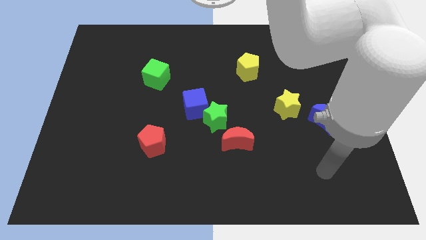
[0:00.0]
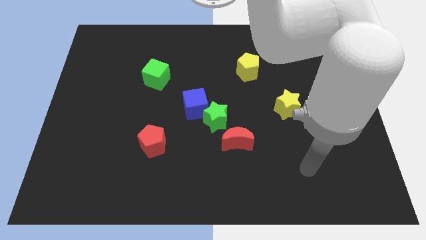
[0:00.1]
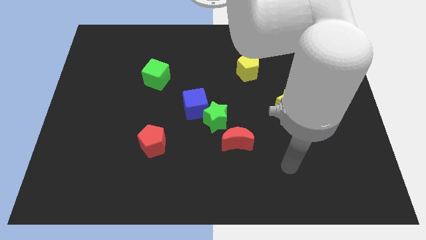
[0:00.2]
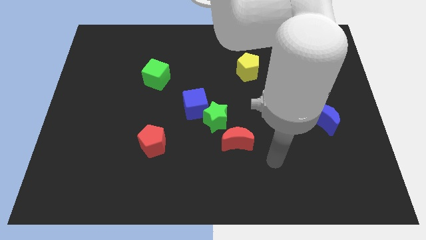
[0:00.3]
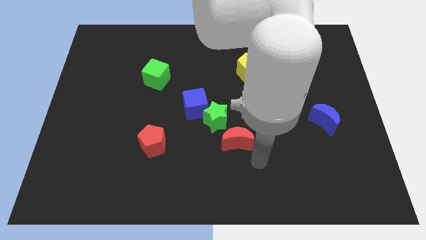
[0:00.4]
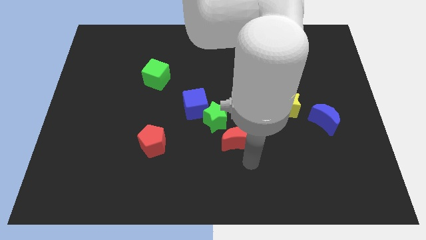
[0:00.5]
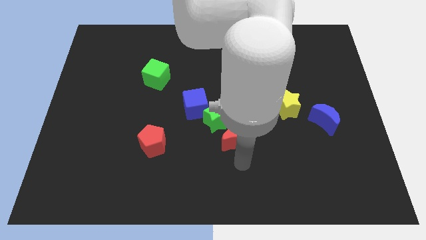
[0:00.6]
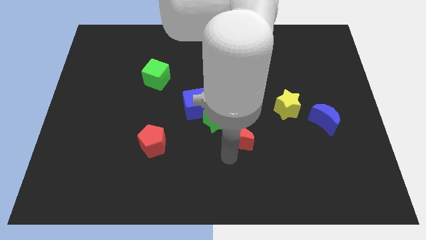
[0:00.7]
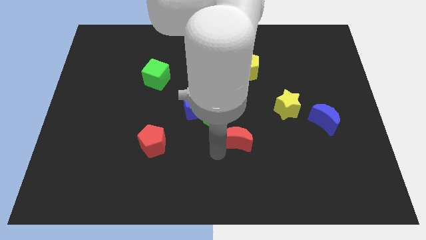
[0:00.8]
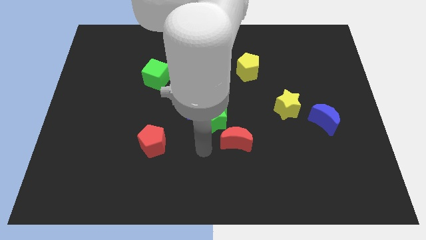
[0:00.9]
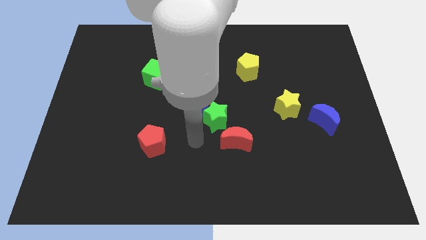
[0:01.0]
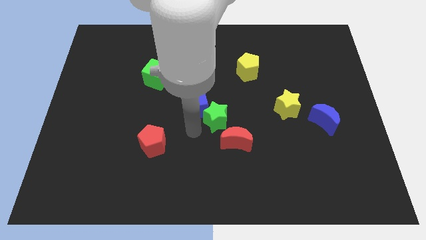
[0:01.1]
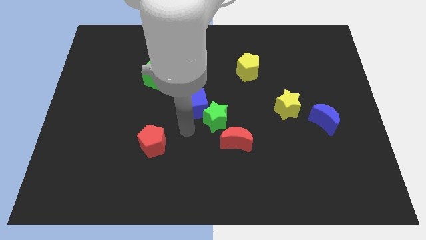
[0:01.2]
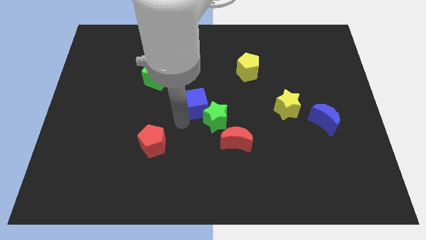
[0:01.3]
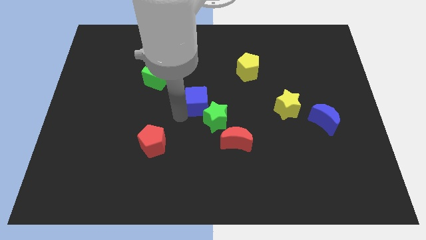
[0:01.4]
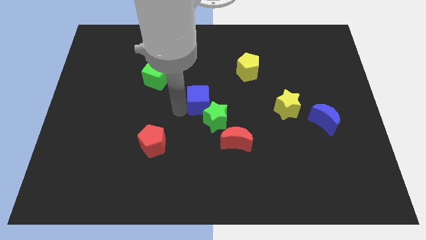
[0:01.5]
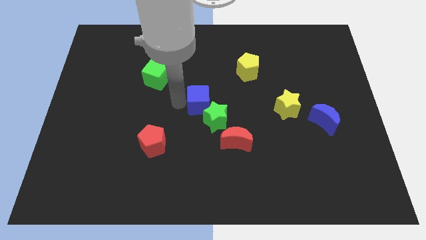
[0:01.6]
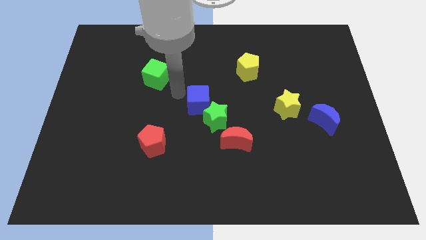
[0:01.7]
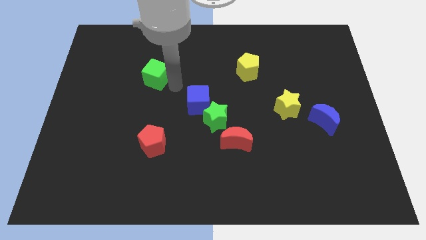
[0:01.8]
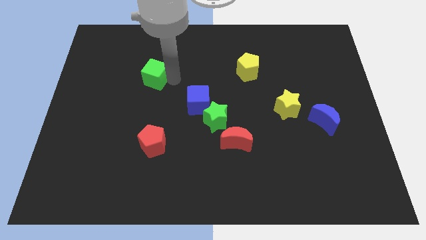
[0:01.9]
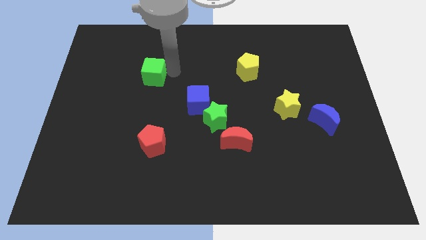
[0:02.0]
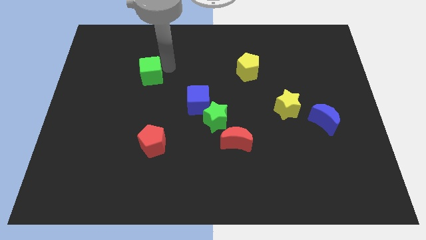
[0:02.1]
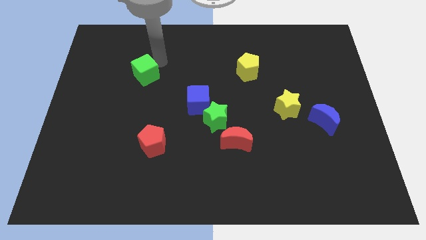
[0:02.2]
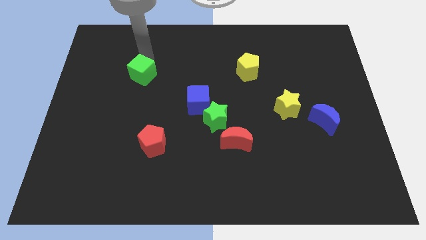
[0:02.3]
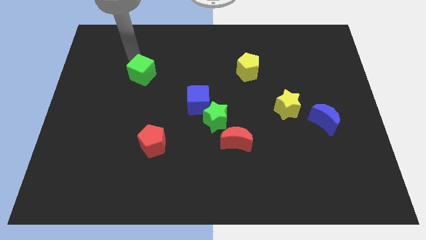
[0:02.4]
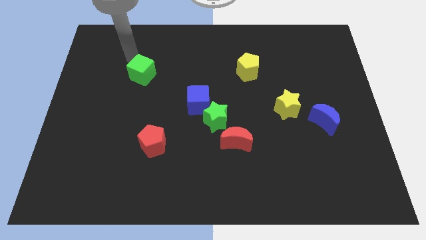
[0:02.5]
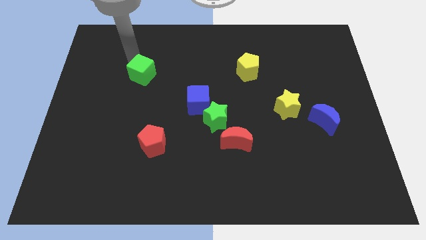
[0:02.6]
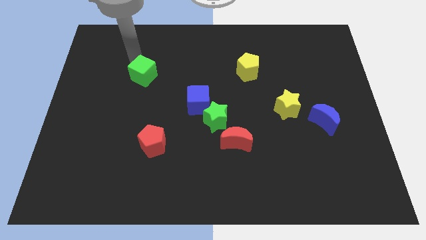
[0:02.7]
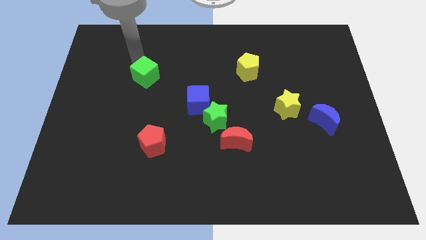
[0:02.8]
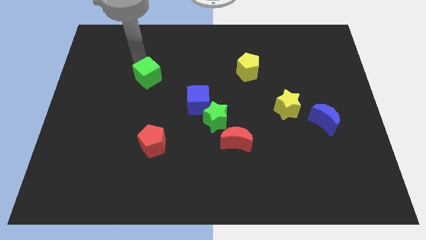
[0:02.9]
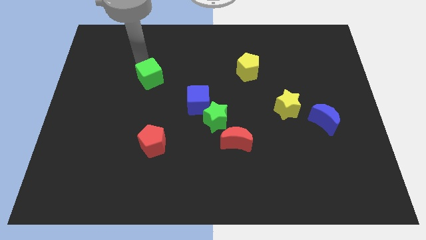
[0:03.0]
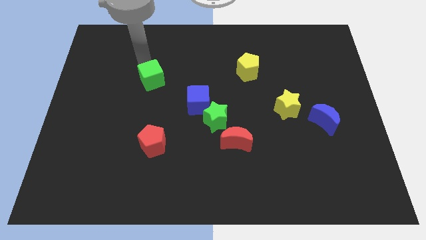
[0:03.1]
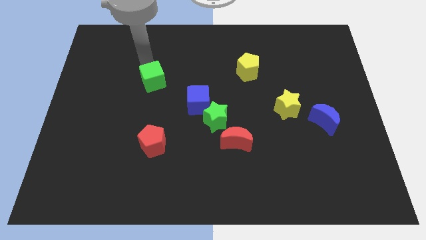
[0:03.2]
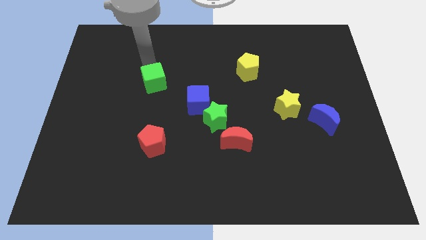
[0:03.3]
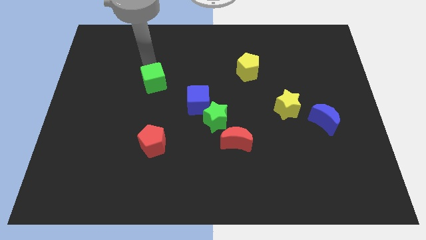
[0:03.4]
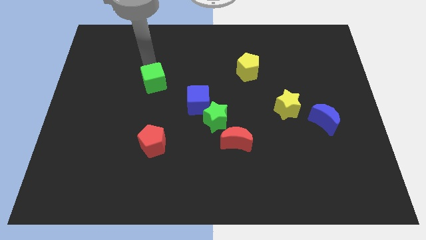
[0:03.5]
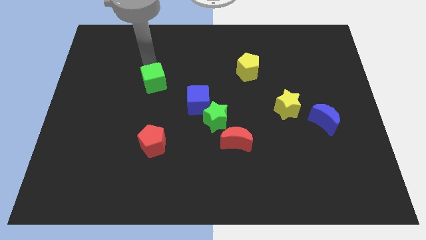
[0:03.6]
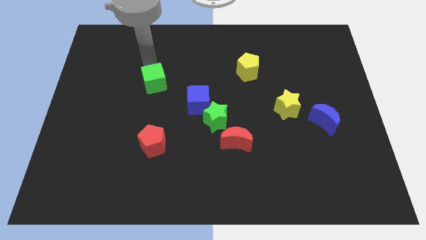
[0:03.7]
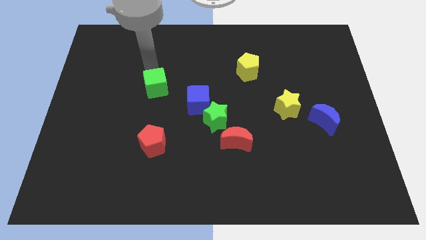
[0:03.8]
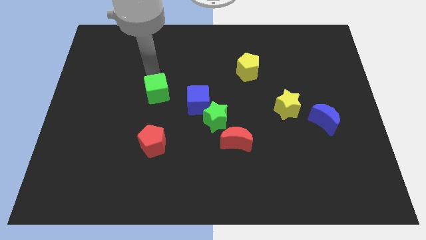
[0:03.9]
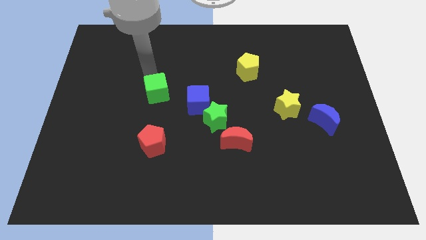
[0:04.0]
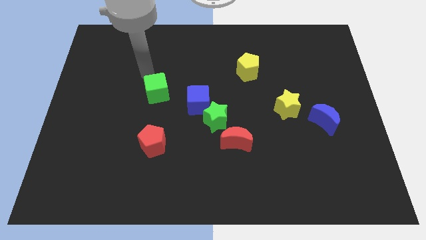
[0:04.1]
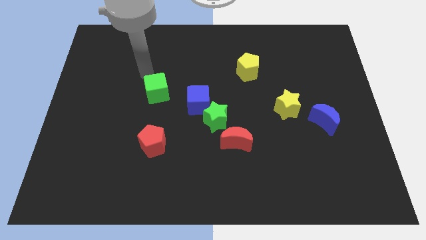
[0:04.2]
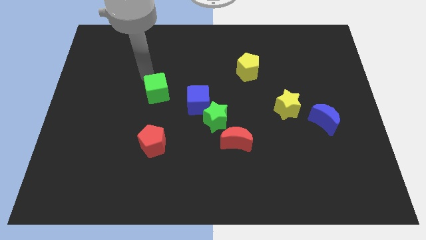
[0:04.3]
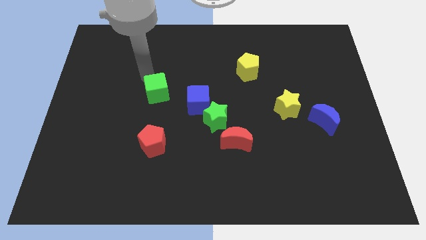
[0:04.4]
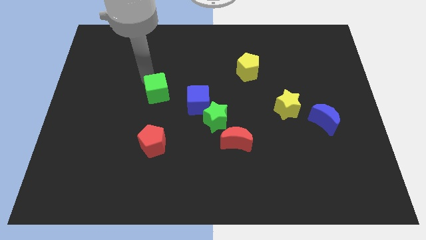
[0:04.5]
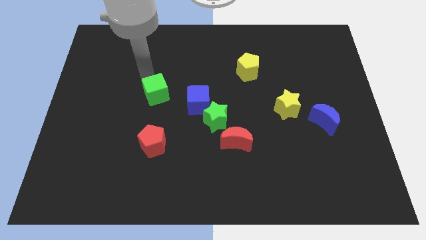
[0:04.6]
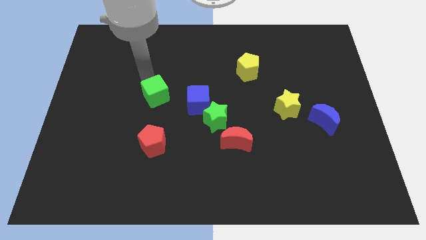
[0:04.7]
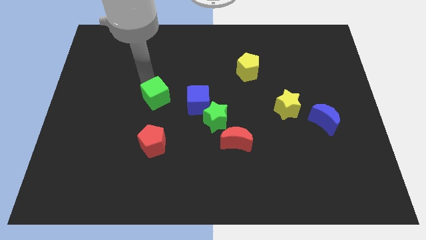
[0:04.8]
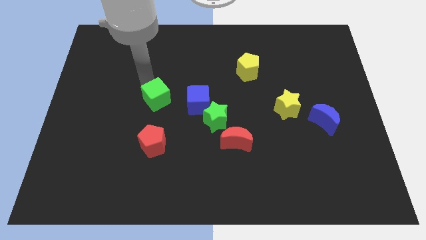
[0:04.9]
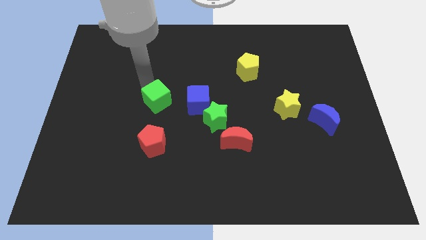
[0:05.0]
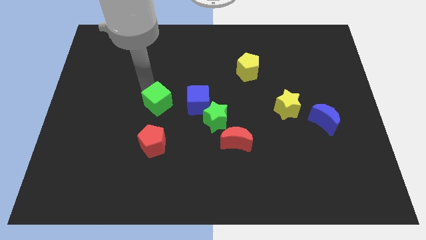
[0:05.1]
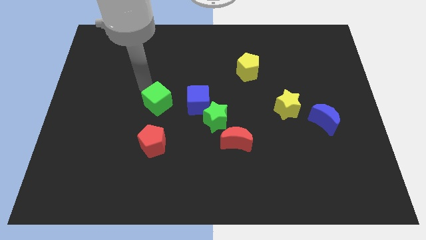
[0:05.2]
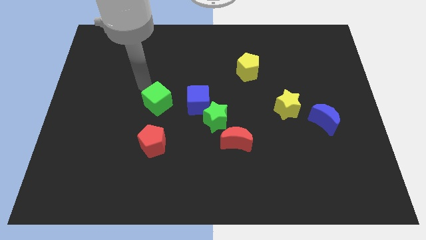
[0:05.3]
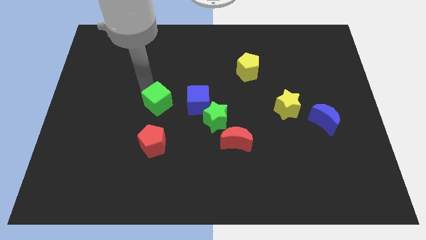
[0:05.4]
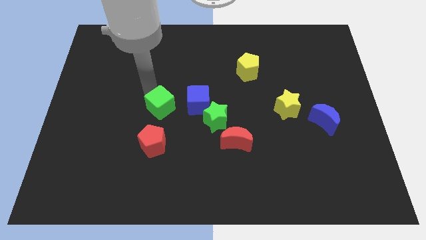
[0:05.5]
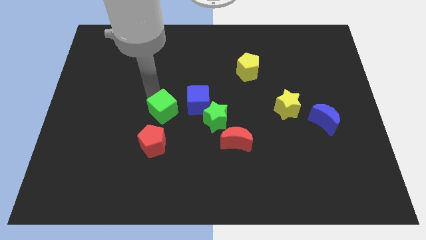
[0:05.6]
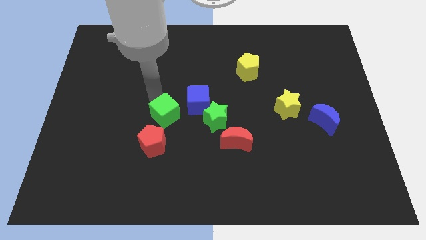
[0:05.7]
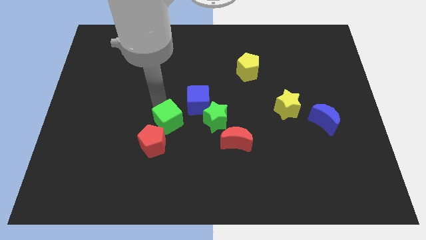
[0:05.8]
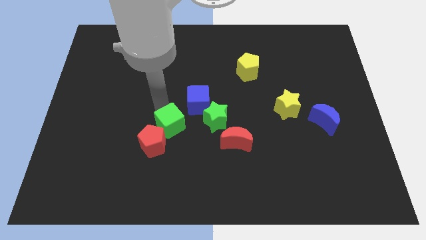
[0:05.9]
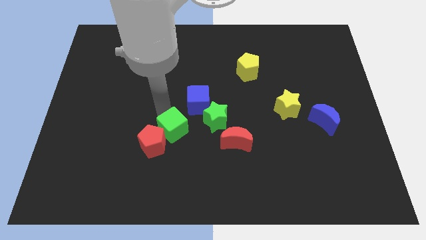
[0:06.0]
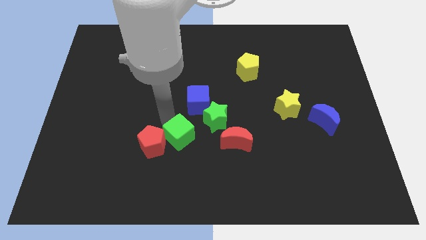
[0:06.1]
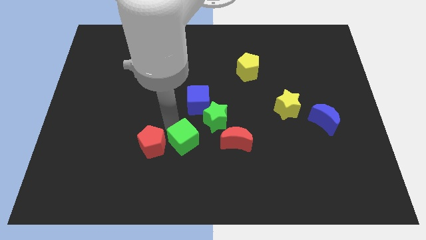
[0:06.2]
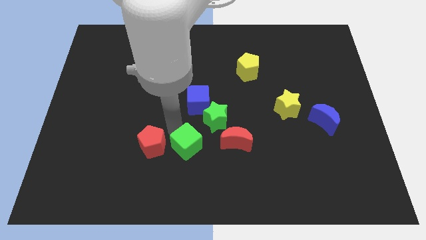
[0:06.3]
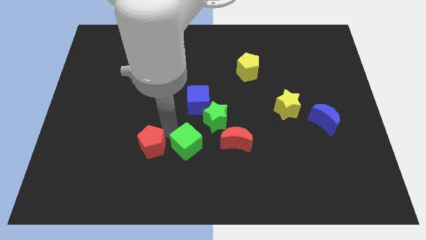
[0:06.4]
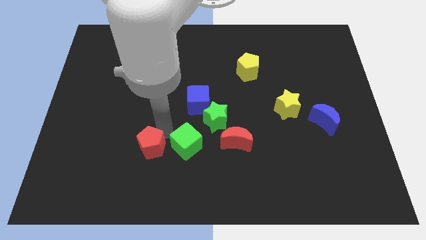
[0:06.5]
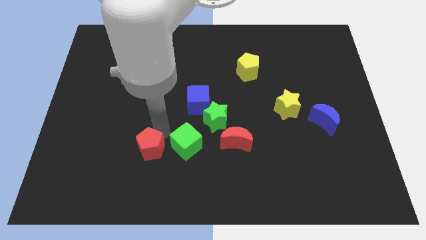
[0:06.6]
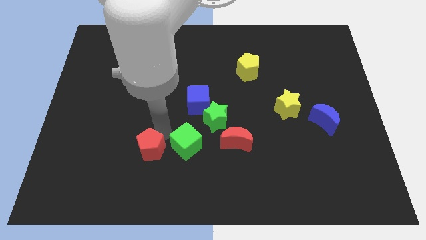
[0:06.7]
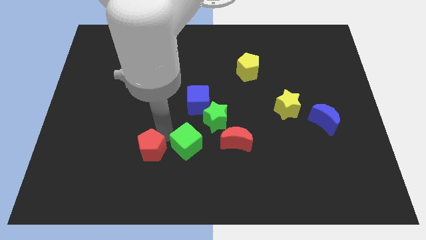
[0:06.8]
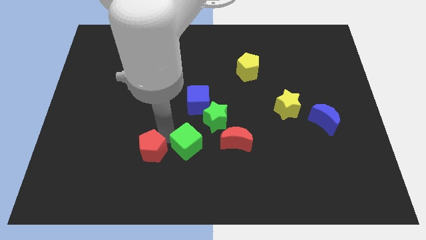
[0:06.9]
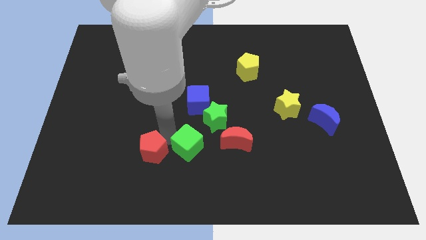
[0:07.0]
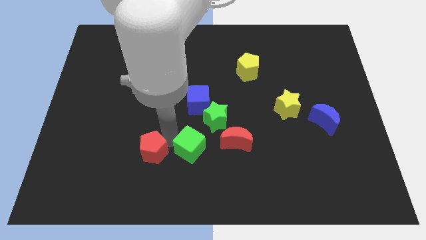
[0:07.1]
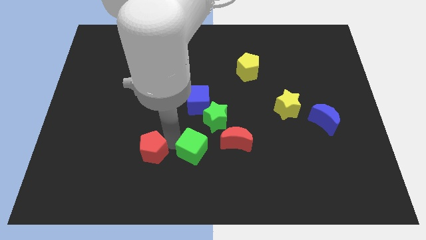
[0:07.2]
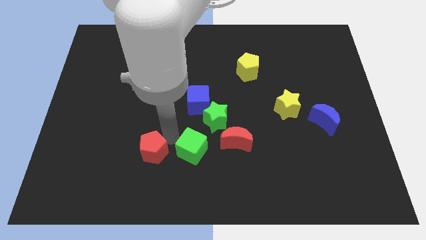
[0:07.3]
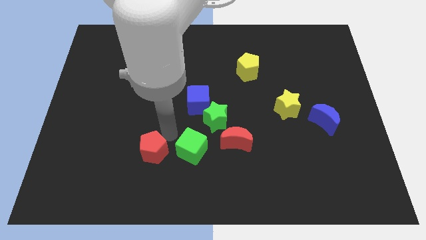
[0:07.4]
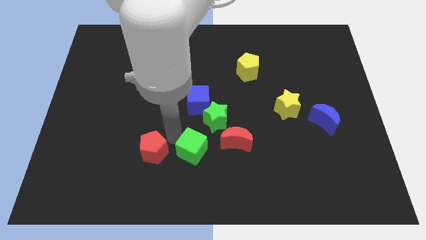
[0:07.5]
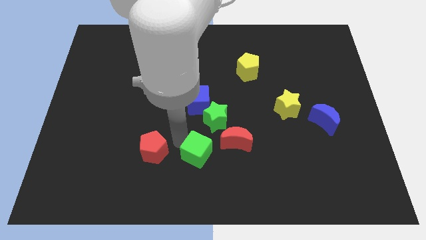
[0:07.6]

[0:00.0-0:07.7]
push the green cube diagonally down and to the left of the red moon

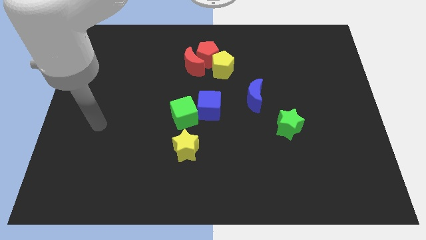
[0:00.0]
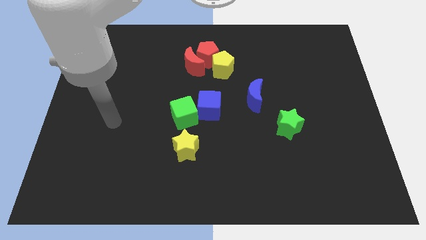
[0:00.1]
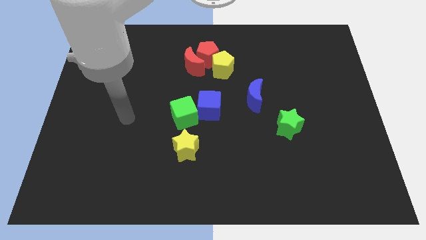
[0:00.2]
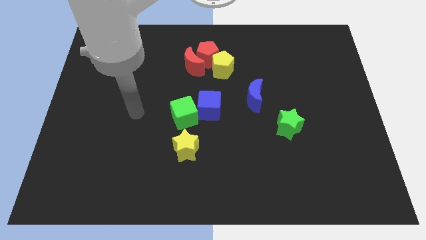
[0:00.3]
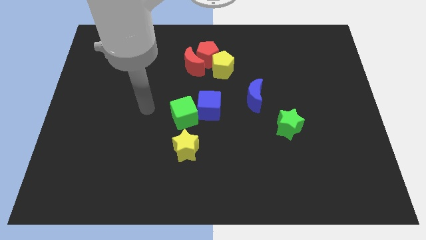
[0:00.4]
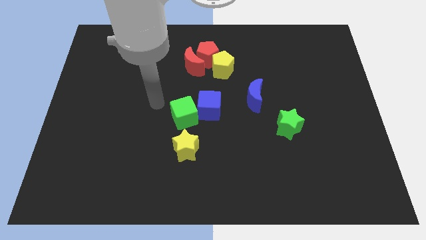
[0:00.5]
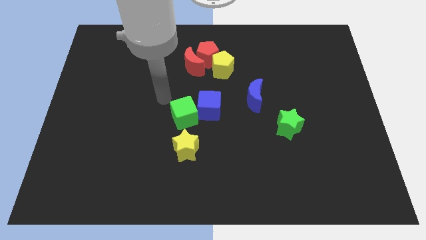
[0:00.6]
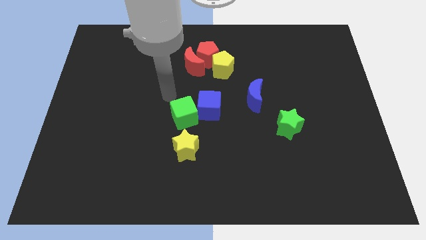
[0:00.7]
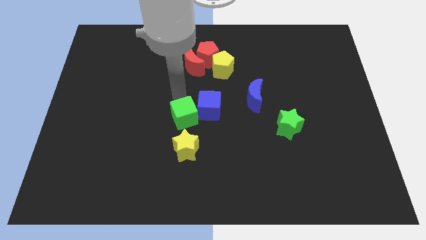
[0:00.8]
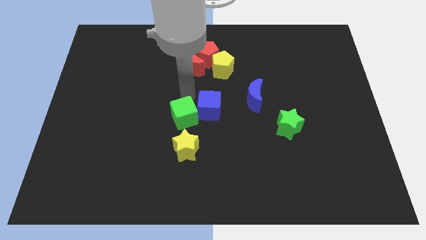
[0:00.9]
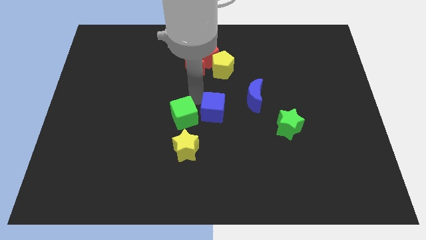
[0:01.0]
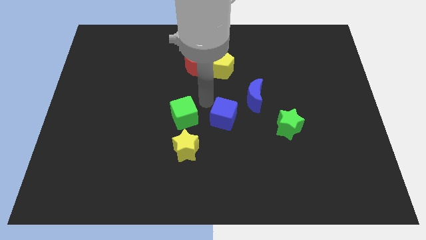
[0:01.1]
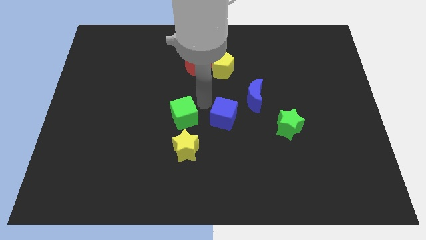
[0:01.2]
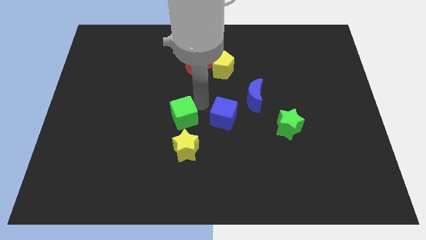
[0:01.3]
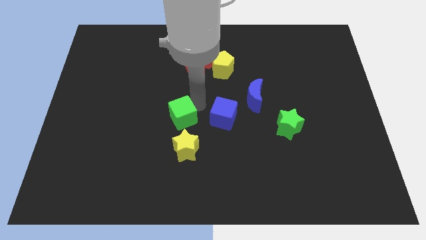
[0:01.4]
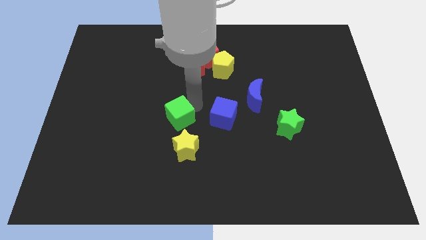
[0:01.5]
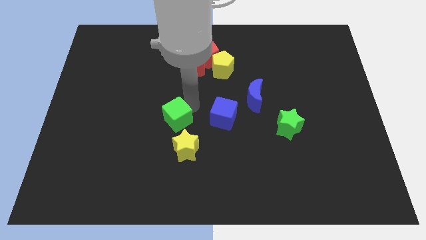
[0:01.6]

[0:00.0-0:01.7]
push the green cube to the top left of the yellow star
